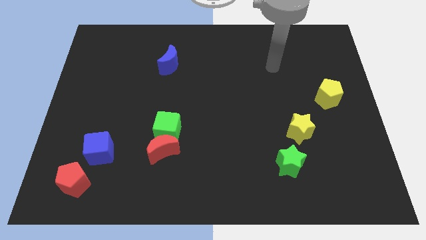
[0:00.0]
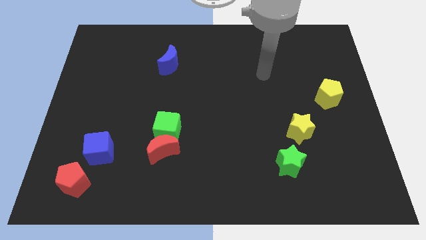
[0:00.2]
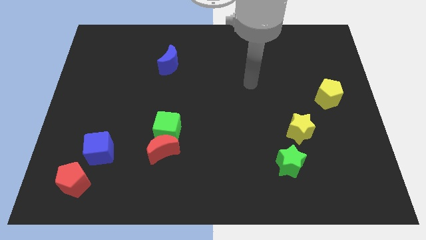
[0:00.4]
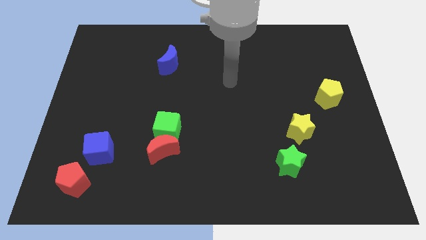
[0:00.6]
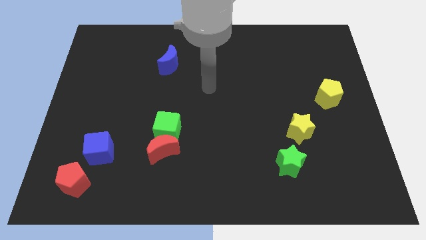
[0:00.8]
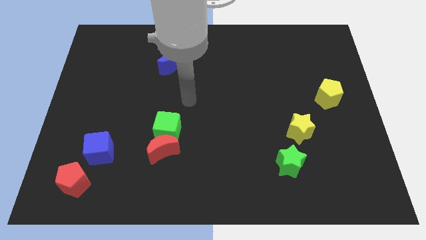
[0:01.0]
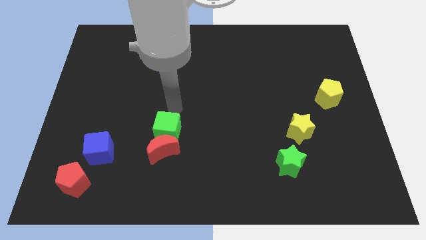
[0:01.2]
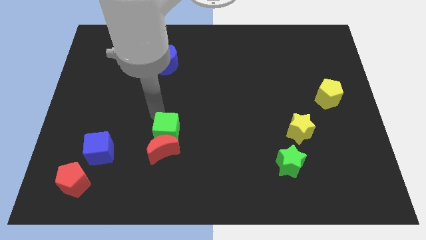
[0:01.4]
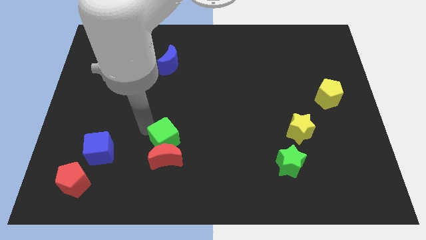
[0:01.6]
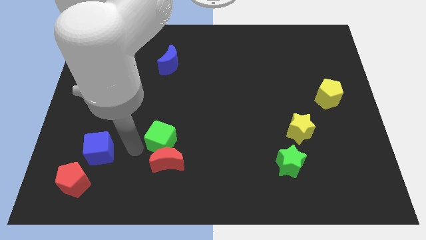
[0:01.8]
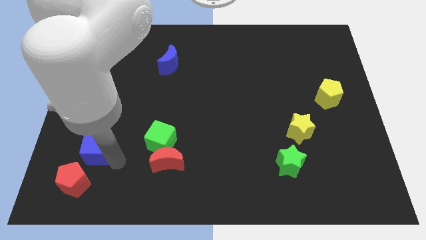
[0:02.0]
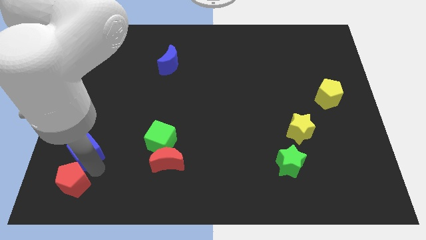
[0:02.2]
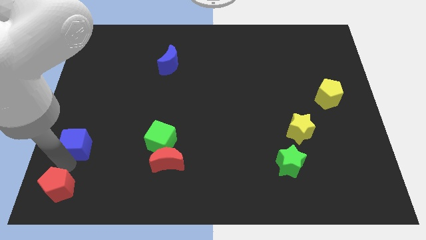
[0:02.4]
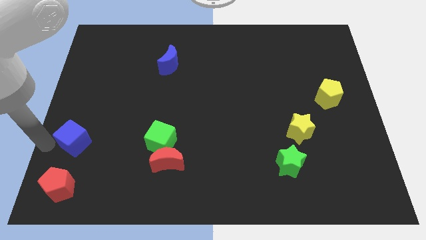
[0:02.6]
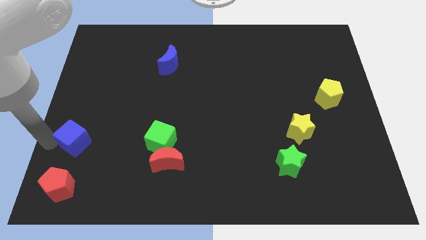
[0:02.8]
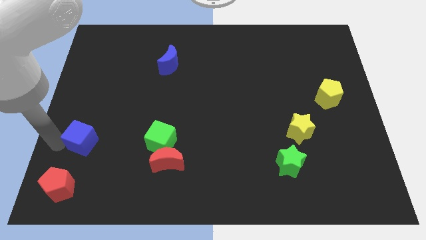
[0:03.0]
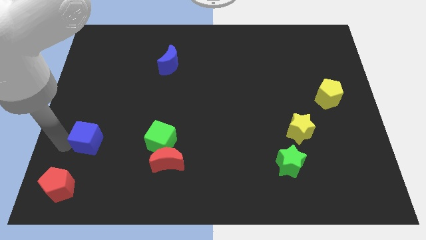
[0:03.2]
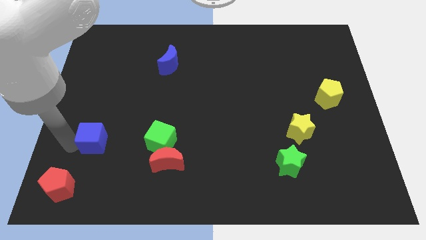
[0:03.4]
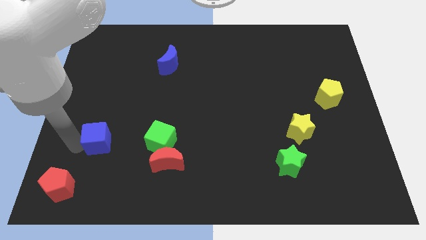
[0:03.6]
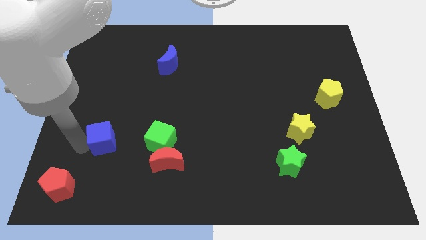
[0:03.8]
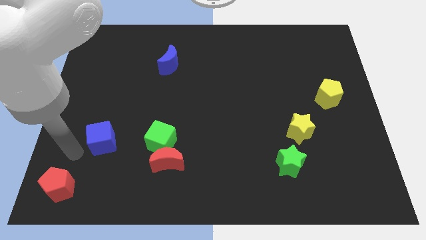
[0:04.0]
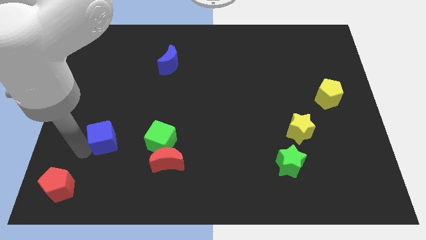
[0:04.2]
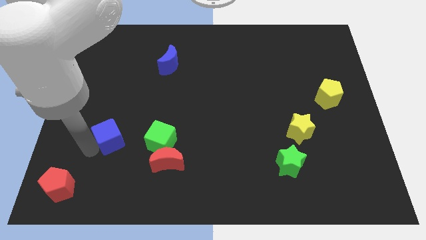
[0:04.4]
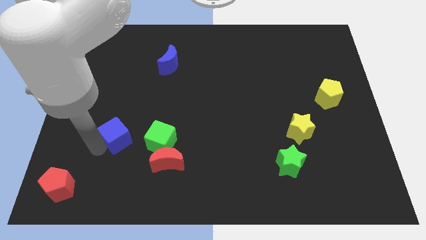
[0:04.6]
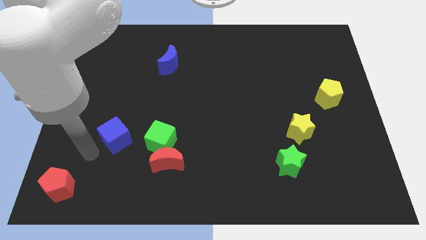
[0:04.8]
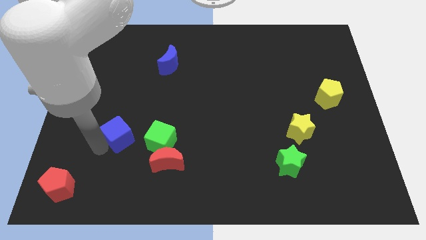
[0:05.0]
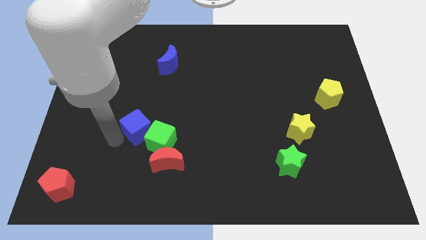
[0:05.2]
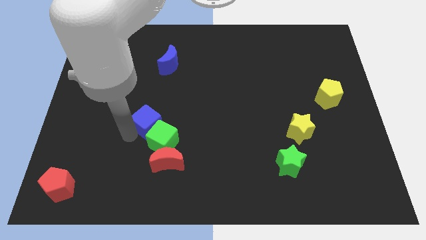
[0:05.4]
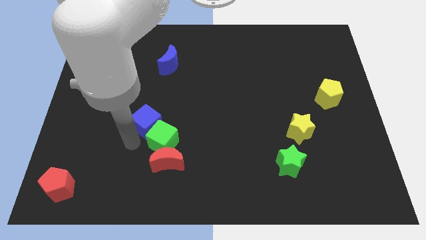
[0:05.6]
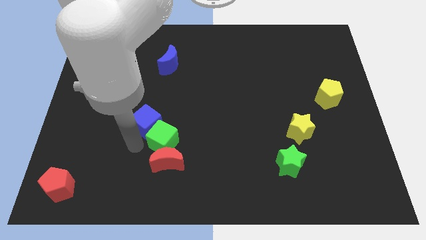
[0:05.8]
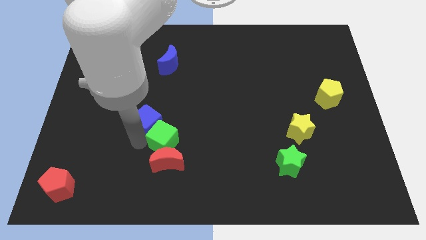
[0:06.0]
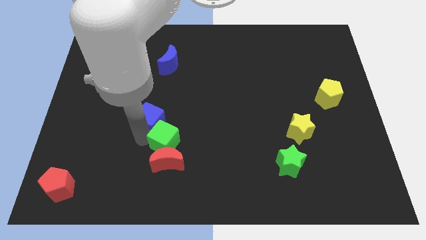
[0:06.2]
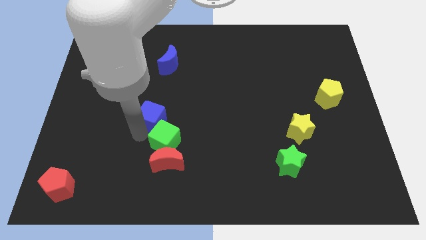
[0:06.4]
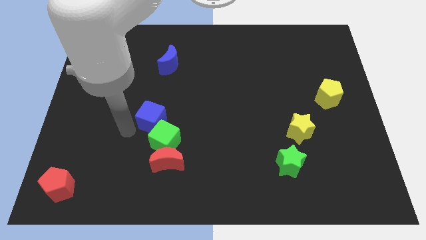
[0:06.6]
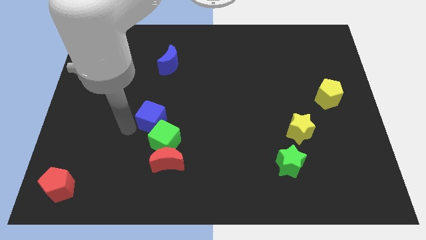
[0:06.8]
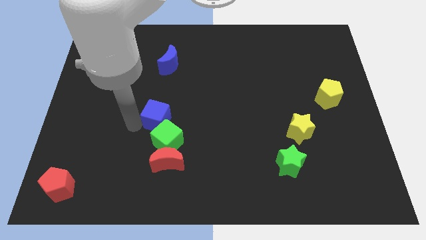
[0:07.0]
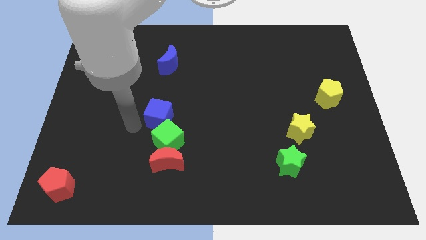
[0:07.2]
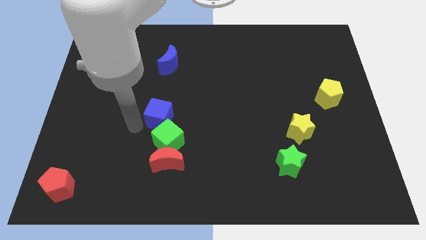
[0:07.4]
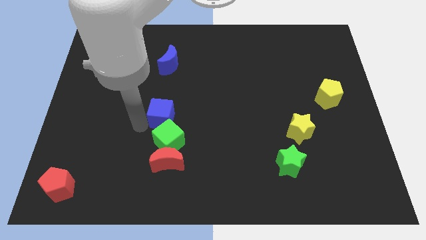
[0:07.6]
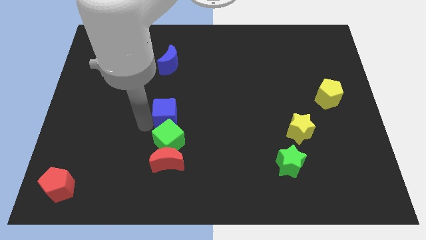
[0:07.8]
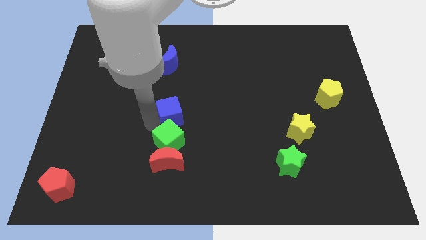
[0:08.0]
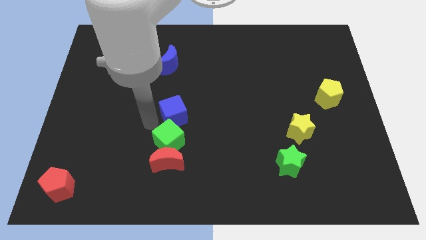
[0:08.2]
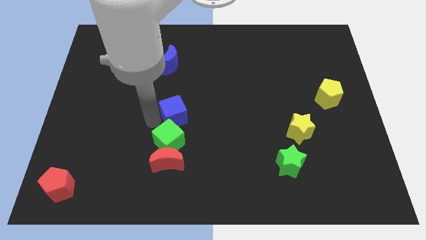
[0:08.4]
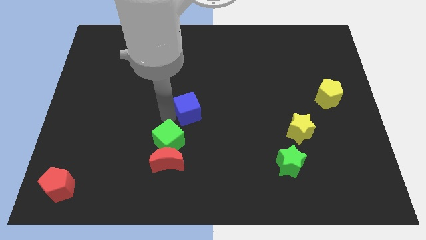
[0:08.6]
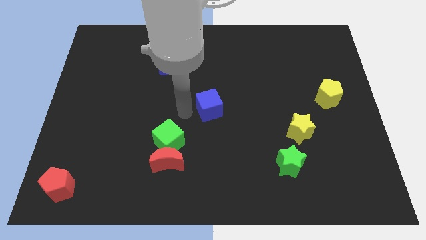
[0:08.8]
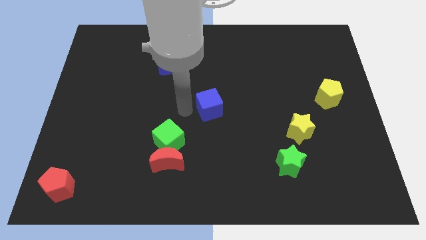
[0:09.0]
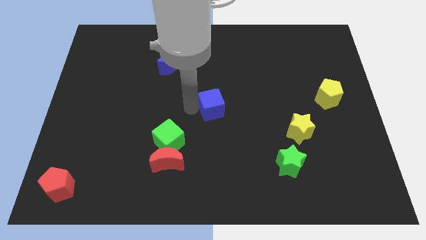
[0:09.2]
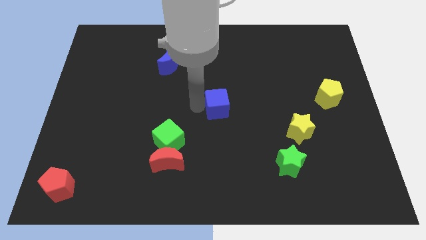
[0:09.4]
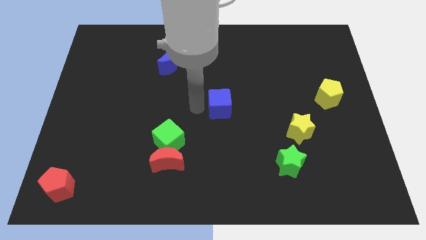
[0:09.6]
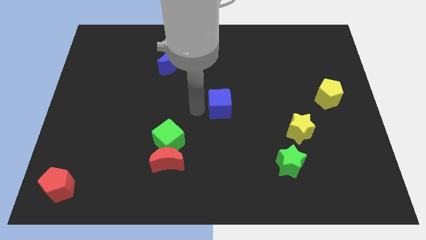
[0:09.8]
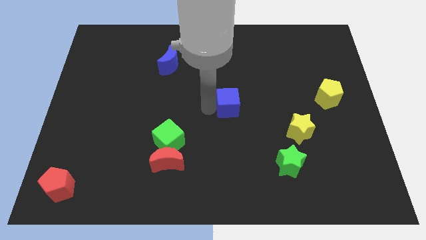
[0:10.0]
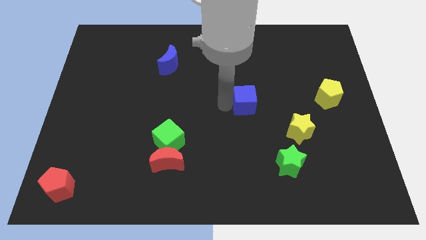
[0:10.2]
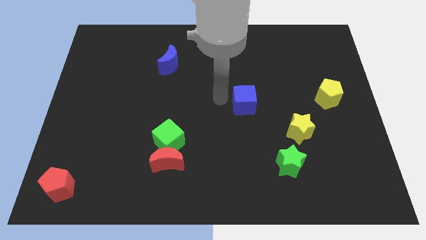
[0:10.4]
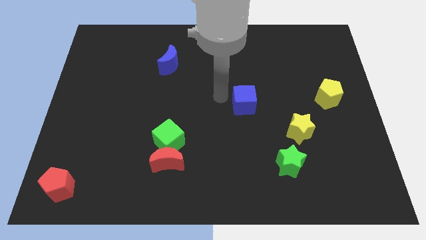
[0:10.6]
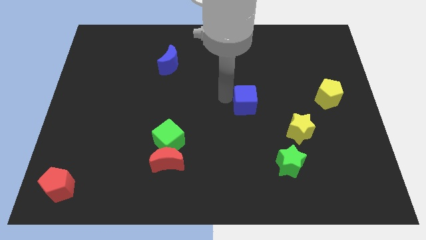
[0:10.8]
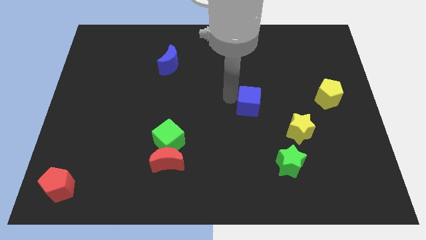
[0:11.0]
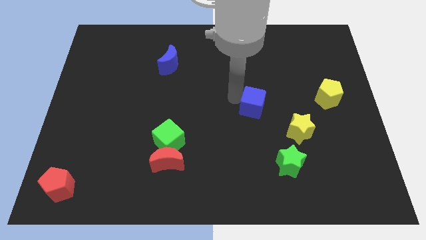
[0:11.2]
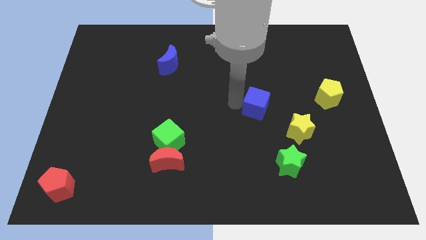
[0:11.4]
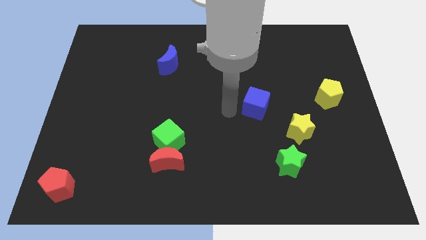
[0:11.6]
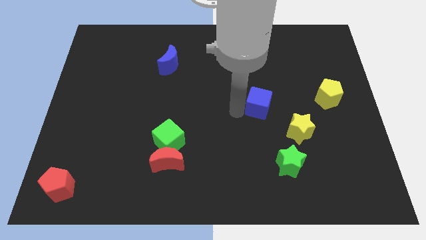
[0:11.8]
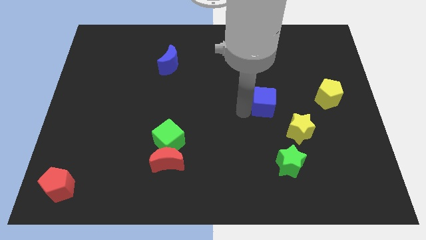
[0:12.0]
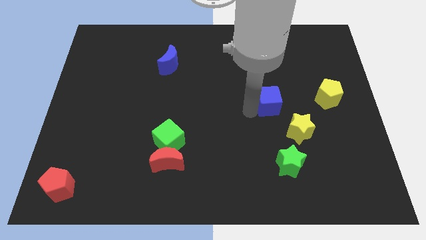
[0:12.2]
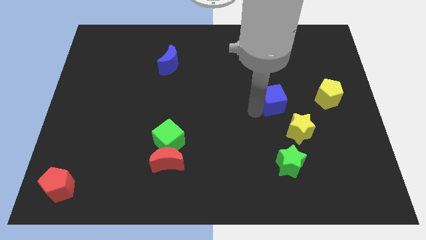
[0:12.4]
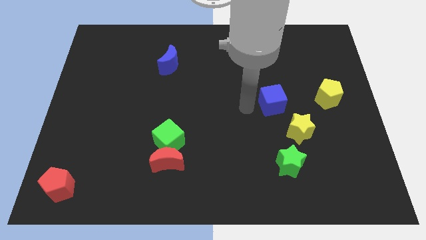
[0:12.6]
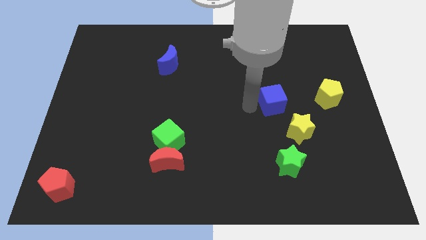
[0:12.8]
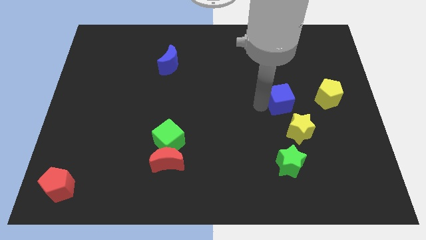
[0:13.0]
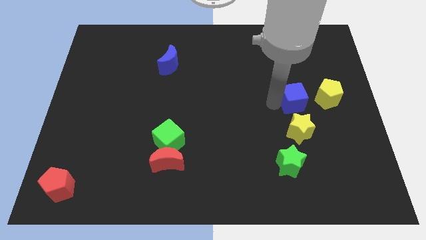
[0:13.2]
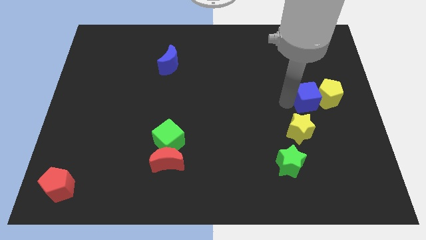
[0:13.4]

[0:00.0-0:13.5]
move the blue cube towards the yellow pentagon

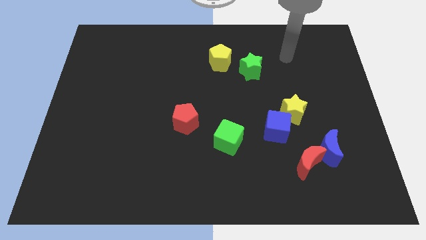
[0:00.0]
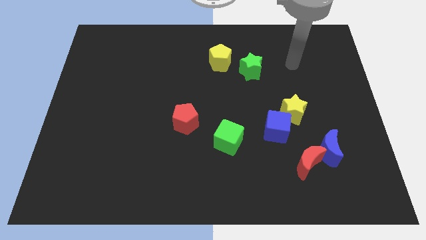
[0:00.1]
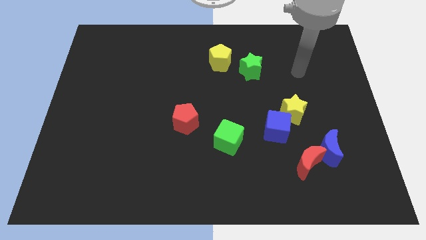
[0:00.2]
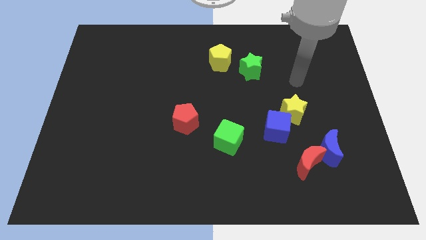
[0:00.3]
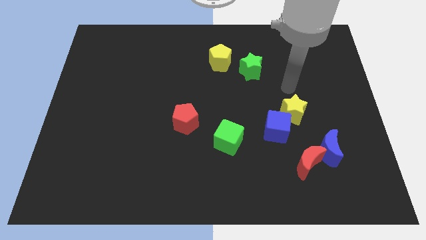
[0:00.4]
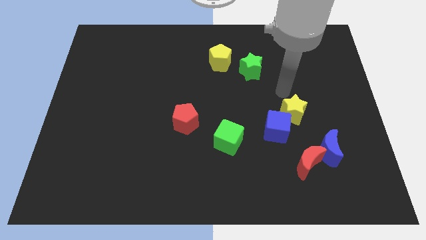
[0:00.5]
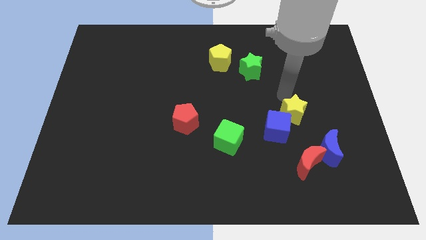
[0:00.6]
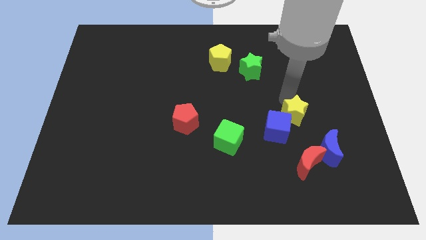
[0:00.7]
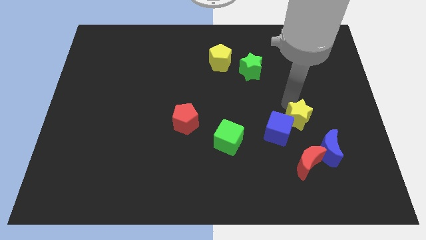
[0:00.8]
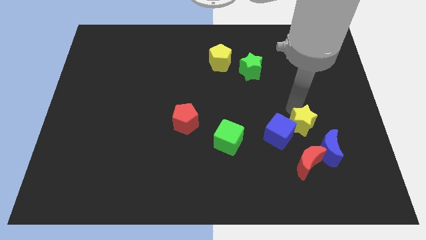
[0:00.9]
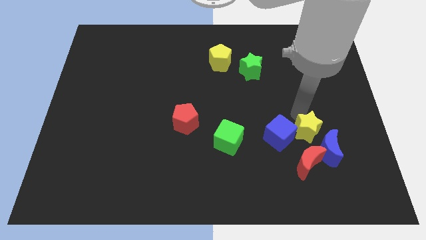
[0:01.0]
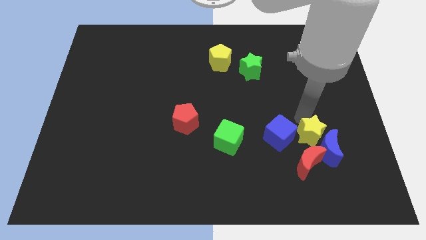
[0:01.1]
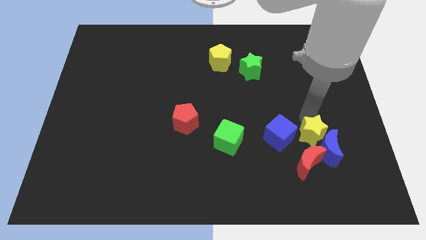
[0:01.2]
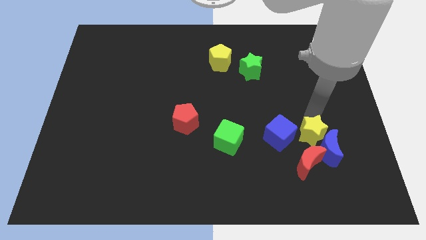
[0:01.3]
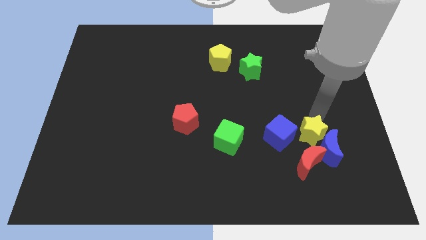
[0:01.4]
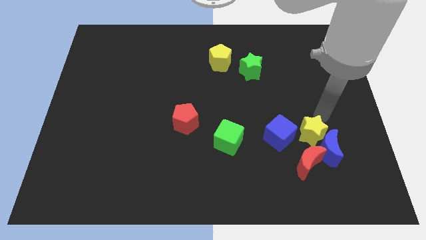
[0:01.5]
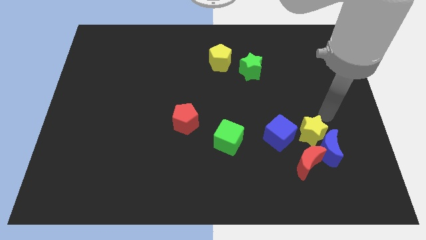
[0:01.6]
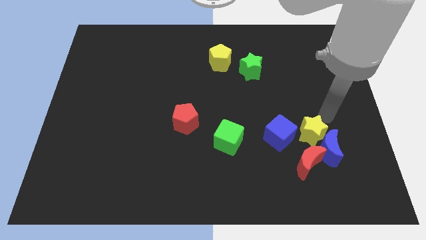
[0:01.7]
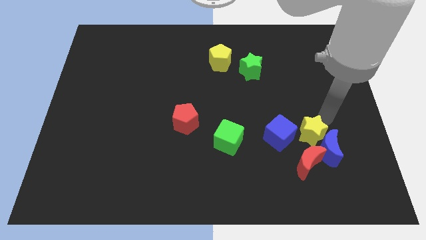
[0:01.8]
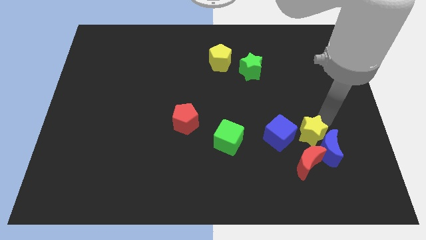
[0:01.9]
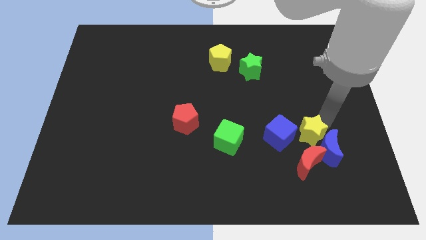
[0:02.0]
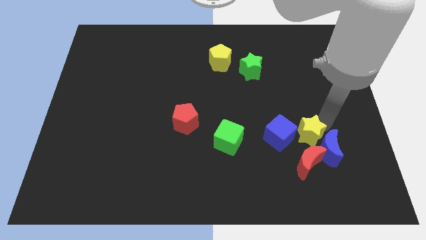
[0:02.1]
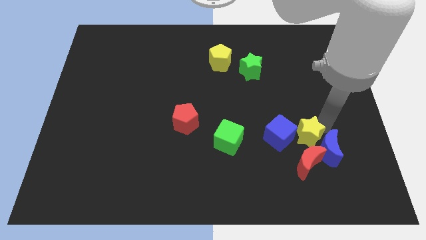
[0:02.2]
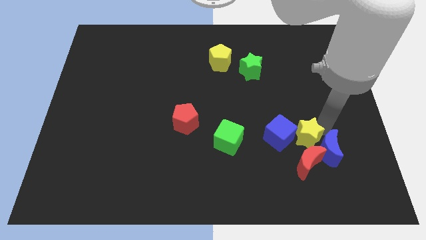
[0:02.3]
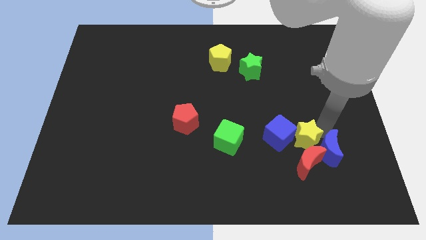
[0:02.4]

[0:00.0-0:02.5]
move the yellow star to the red moon
